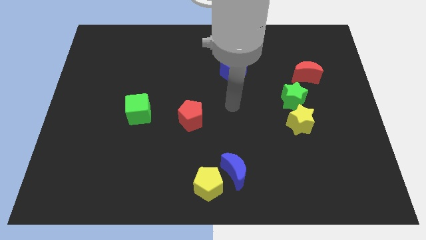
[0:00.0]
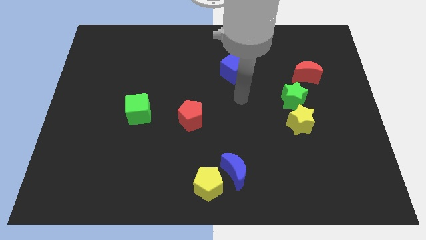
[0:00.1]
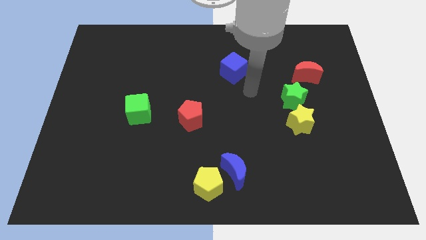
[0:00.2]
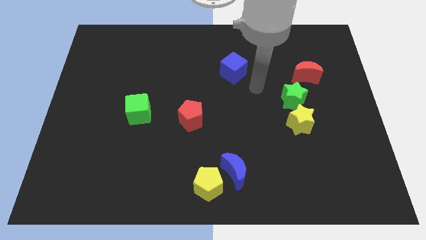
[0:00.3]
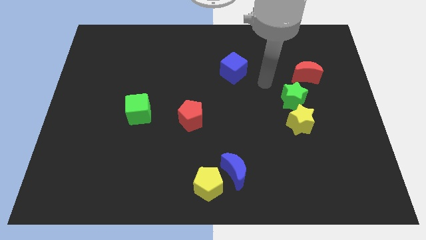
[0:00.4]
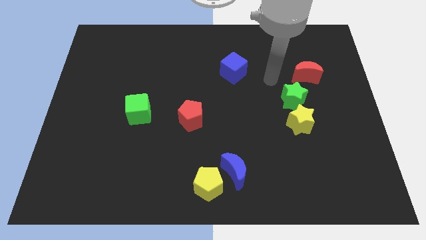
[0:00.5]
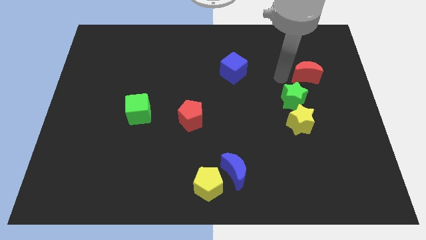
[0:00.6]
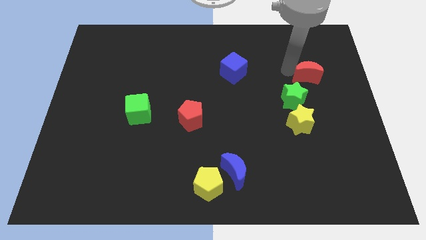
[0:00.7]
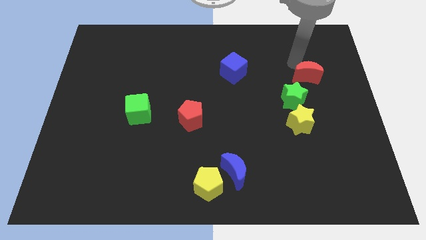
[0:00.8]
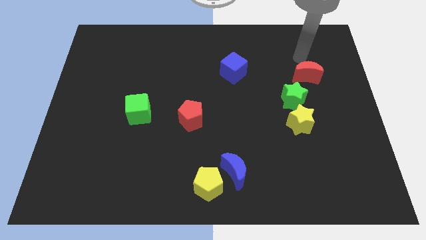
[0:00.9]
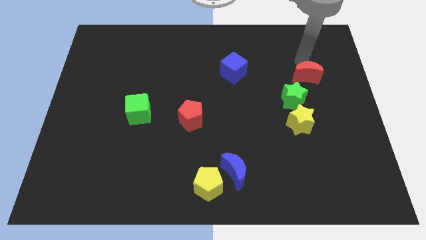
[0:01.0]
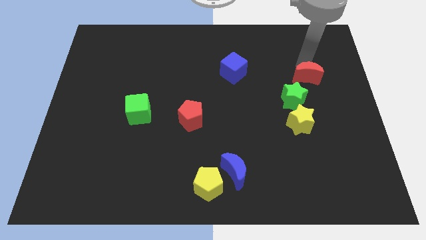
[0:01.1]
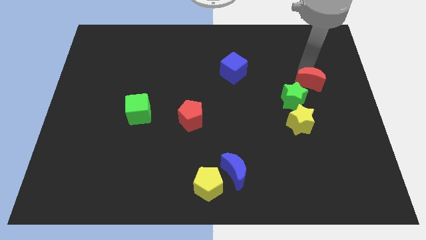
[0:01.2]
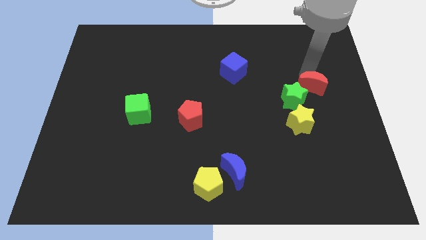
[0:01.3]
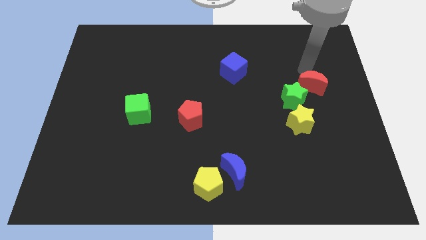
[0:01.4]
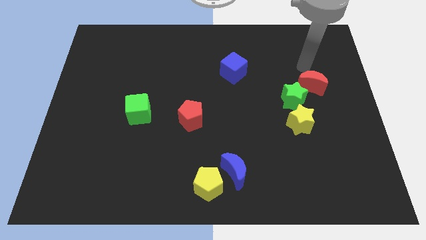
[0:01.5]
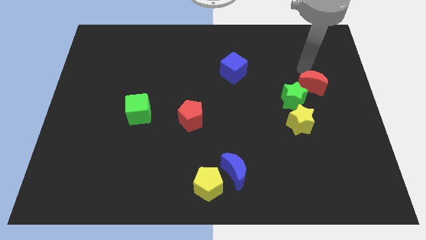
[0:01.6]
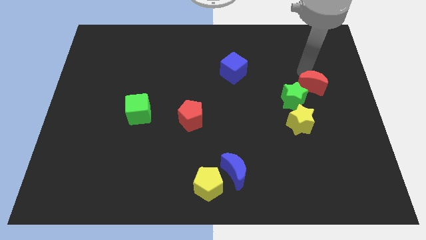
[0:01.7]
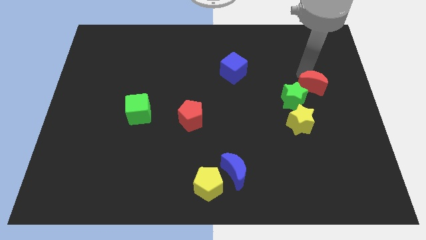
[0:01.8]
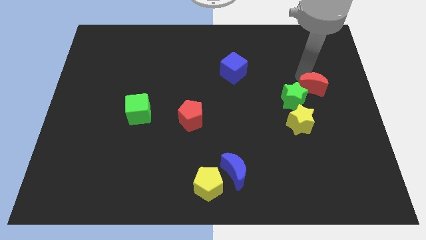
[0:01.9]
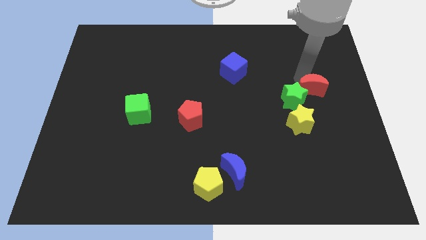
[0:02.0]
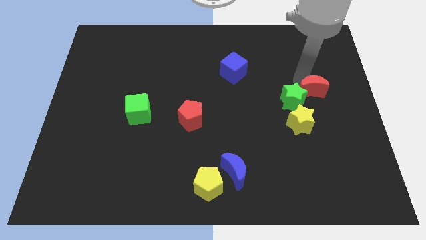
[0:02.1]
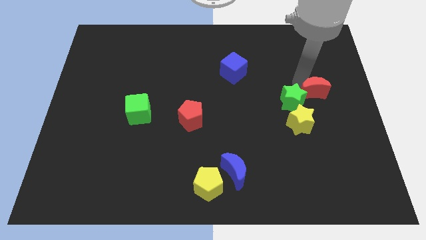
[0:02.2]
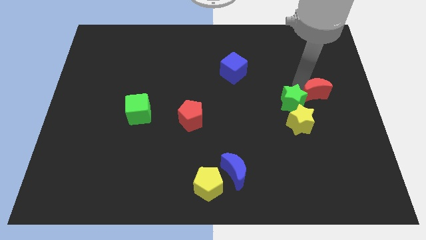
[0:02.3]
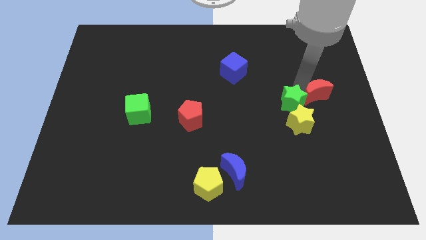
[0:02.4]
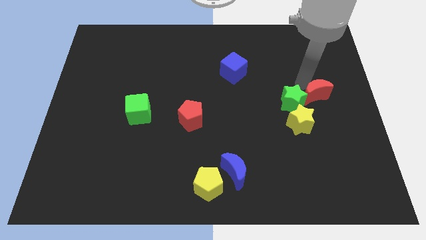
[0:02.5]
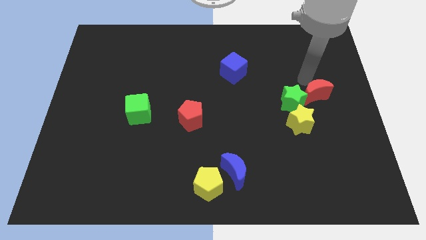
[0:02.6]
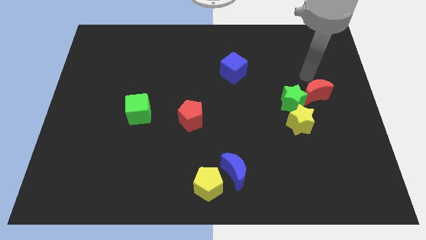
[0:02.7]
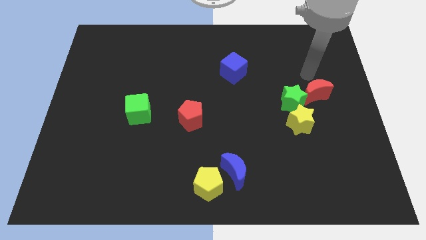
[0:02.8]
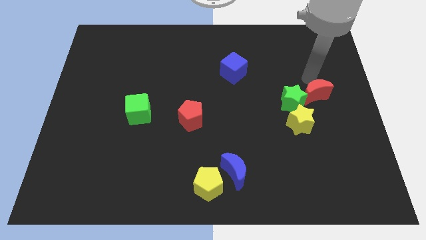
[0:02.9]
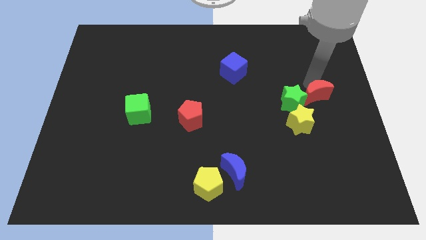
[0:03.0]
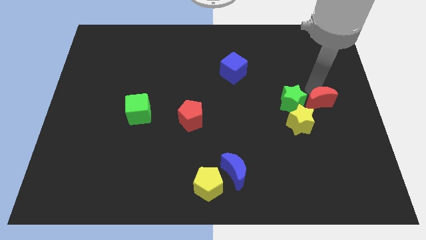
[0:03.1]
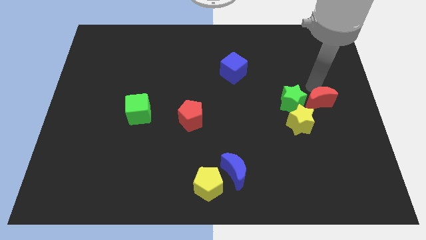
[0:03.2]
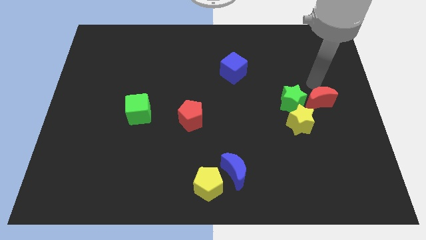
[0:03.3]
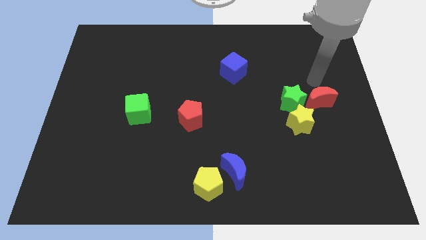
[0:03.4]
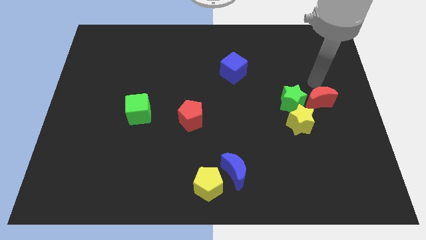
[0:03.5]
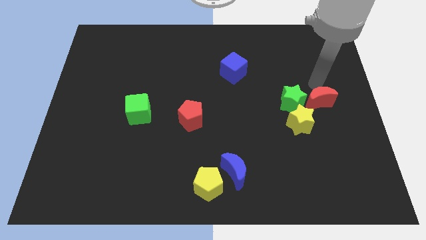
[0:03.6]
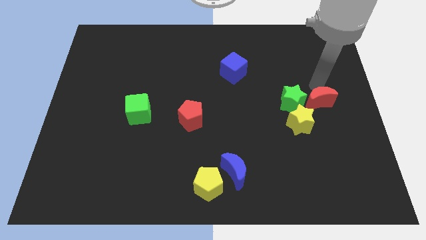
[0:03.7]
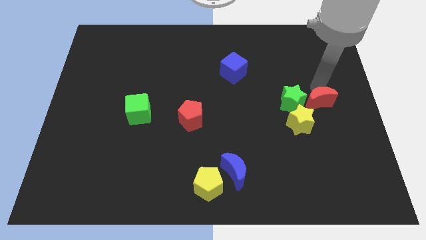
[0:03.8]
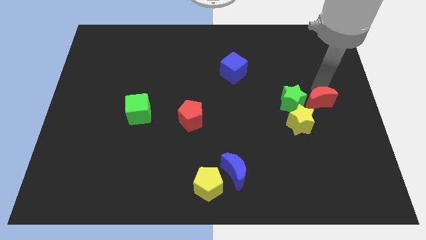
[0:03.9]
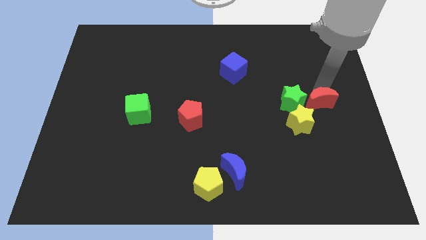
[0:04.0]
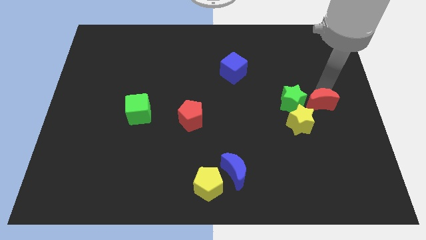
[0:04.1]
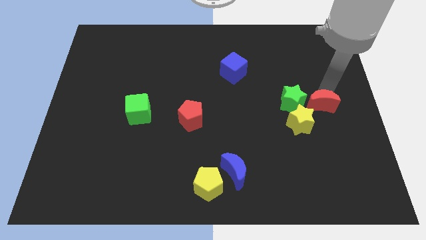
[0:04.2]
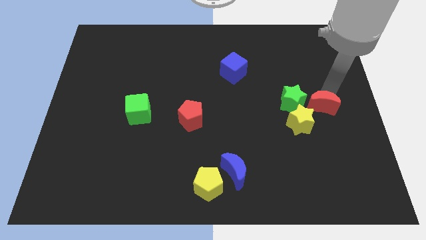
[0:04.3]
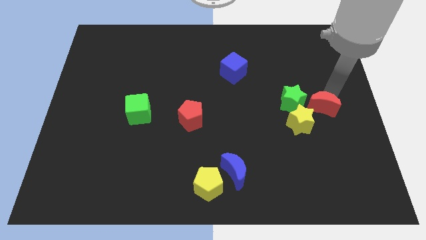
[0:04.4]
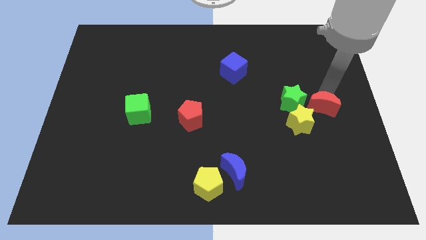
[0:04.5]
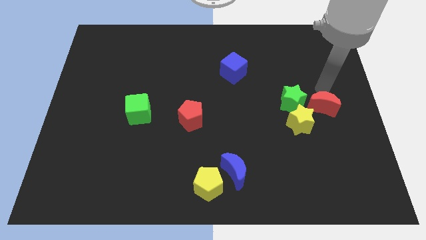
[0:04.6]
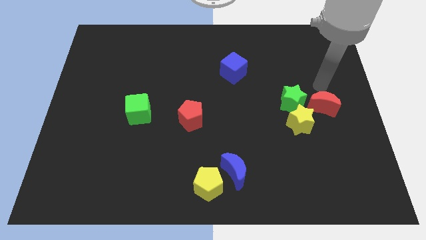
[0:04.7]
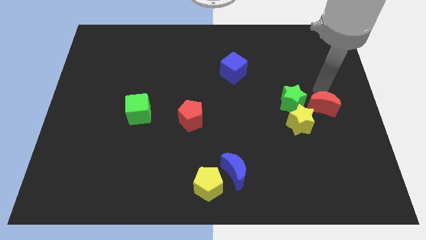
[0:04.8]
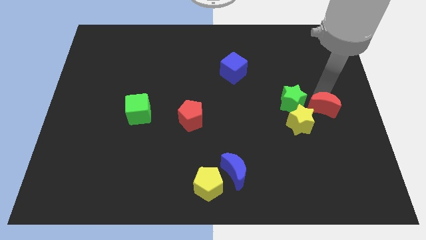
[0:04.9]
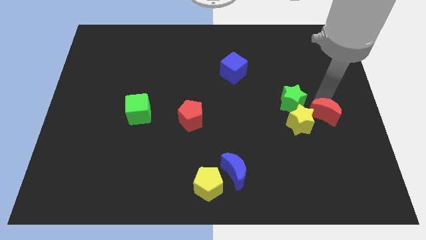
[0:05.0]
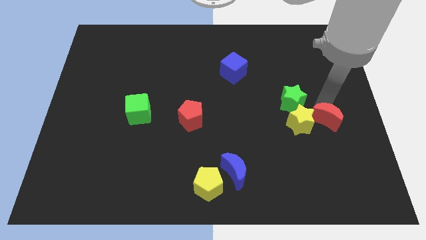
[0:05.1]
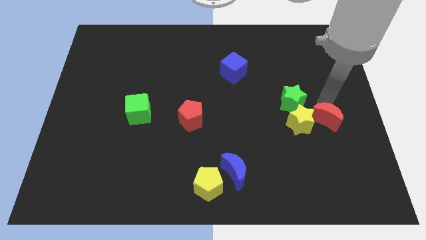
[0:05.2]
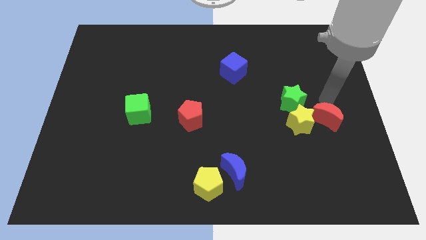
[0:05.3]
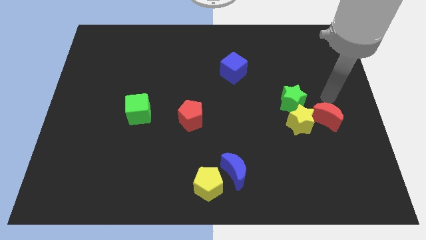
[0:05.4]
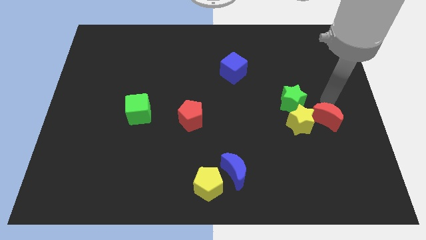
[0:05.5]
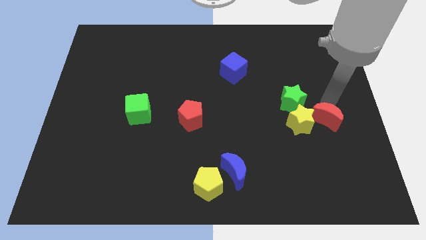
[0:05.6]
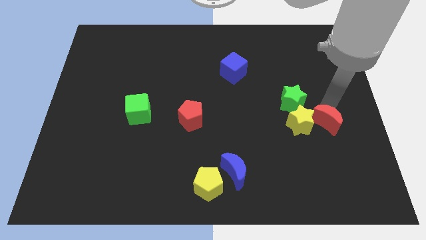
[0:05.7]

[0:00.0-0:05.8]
move the red moon to the bottom right of the yellow star

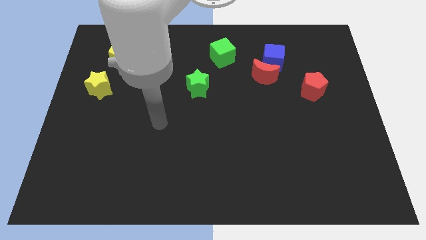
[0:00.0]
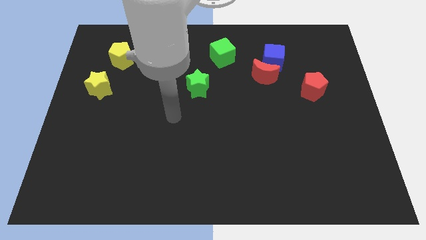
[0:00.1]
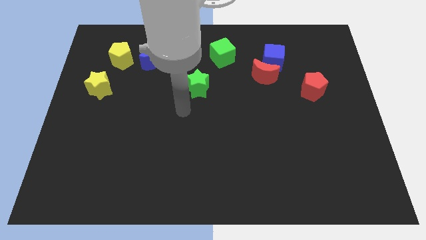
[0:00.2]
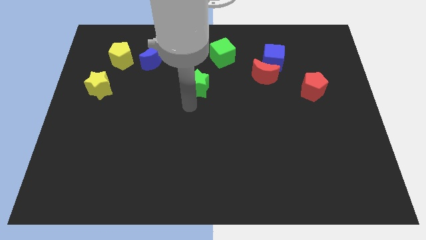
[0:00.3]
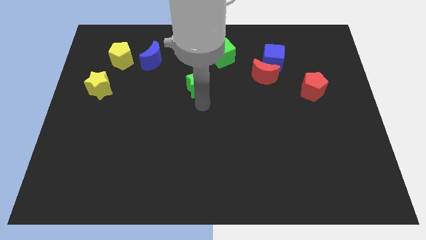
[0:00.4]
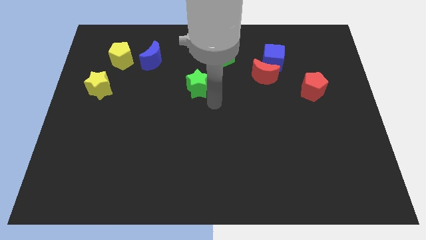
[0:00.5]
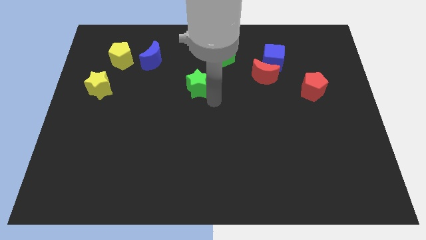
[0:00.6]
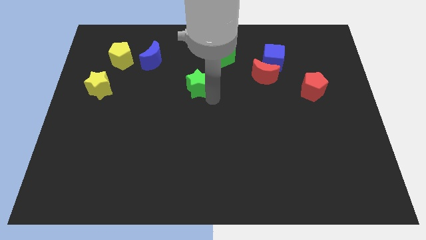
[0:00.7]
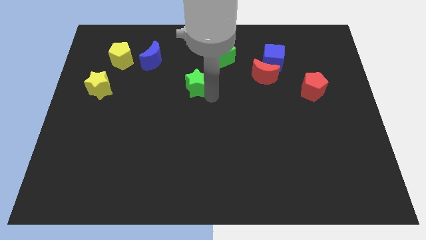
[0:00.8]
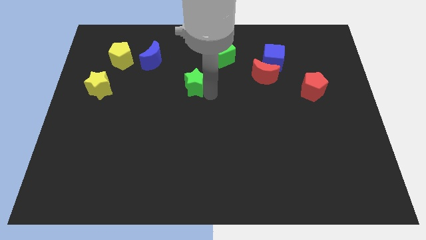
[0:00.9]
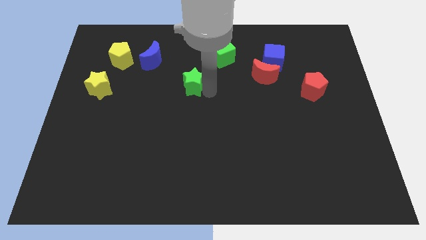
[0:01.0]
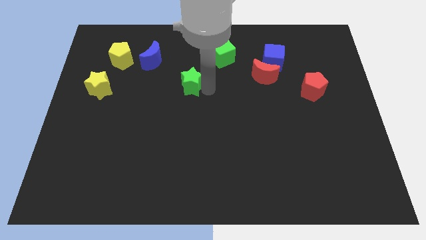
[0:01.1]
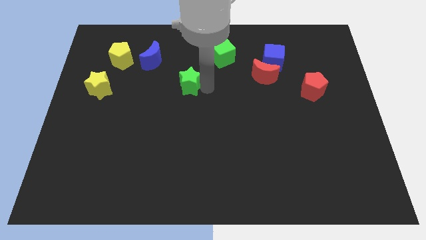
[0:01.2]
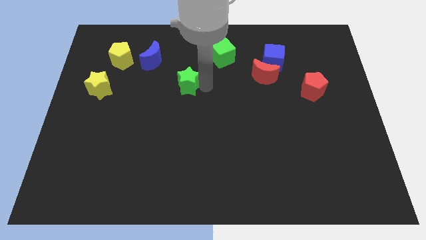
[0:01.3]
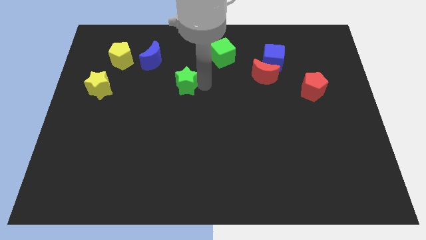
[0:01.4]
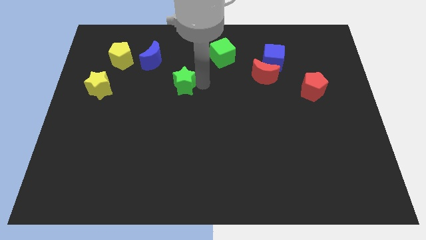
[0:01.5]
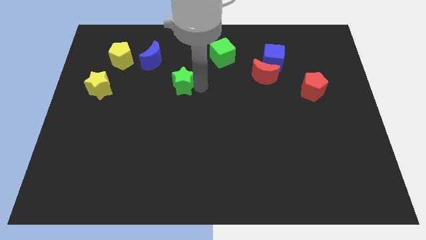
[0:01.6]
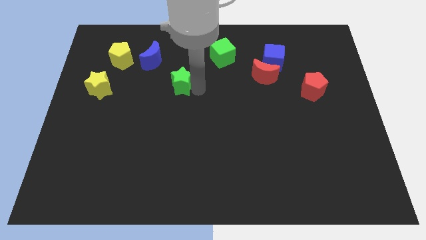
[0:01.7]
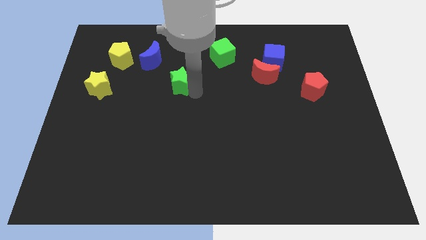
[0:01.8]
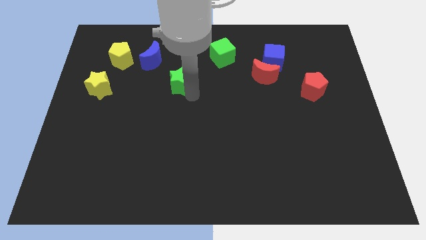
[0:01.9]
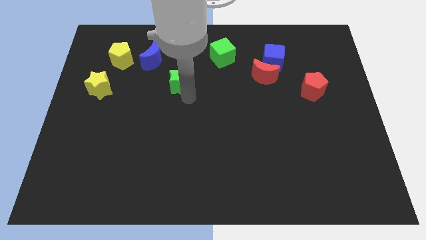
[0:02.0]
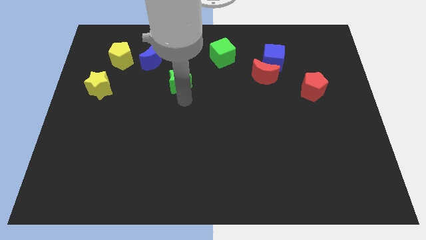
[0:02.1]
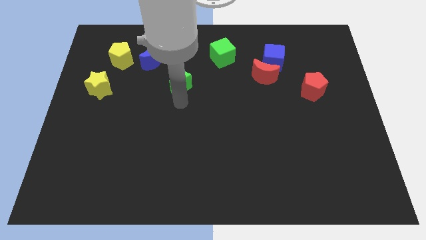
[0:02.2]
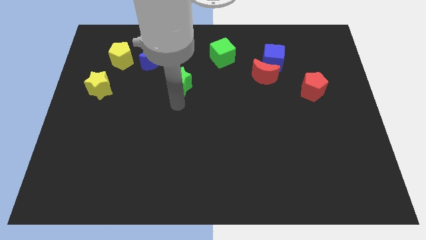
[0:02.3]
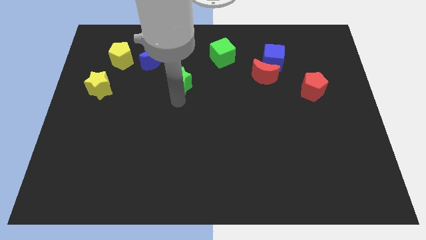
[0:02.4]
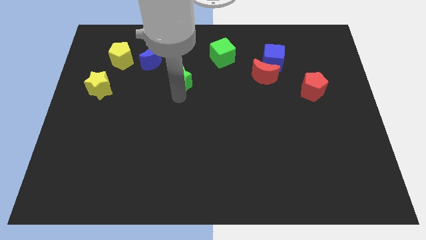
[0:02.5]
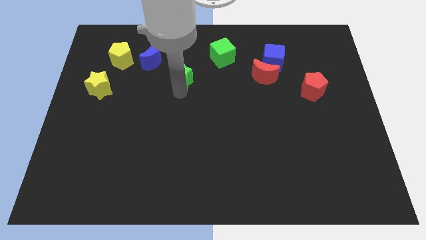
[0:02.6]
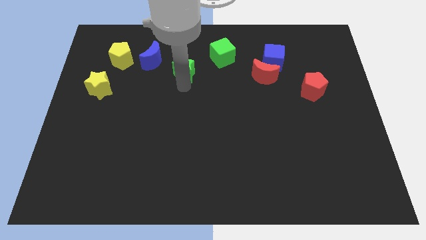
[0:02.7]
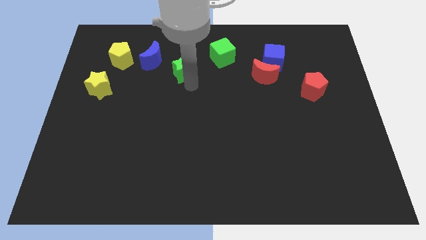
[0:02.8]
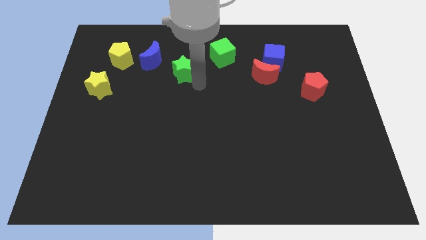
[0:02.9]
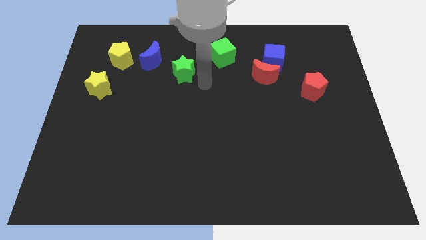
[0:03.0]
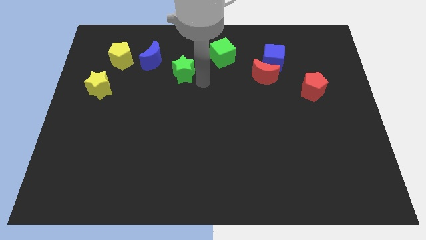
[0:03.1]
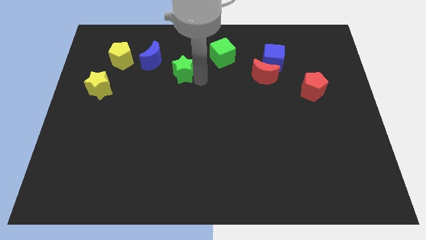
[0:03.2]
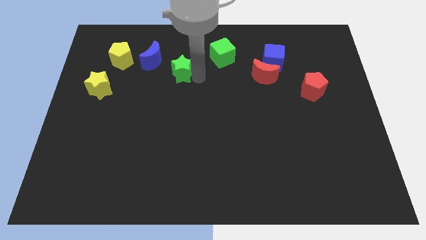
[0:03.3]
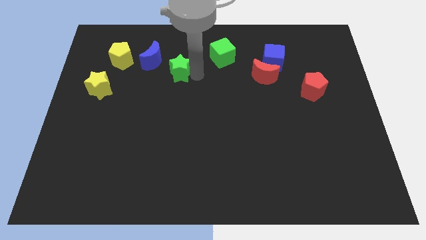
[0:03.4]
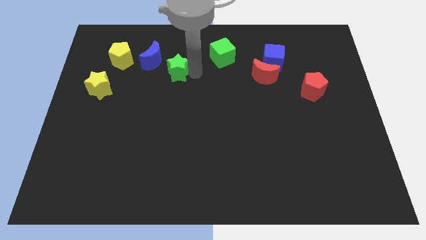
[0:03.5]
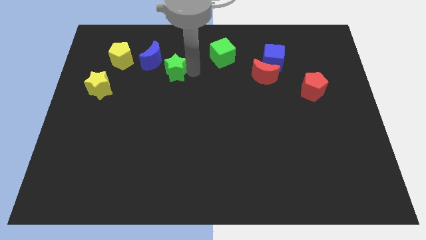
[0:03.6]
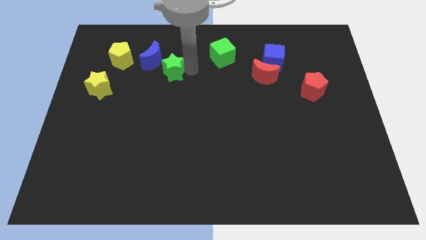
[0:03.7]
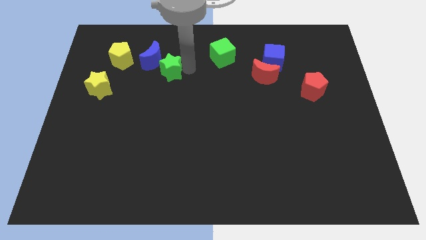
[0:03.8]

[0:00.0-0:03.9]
push the green star to the right of the yellow pentagon
